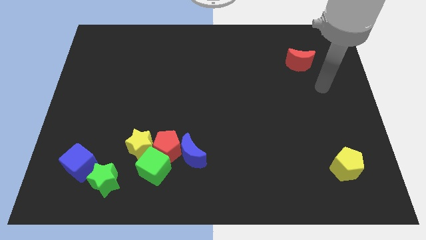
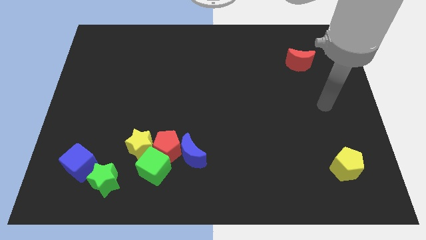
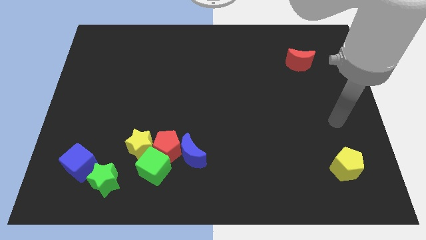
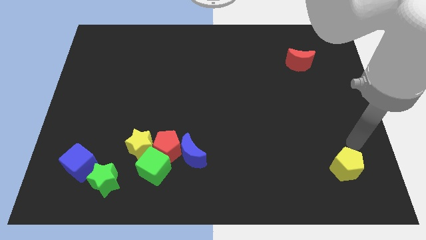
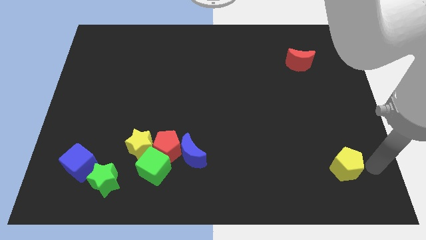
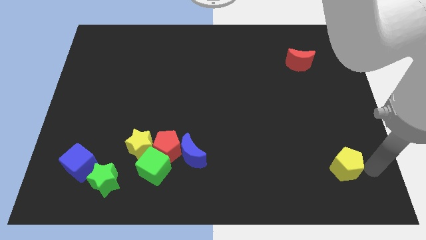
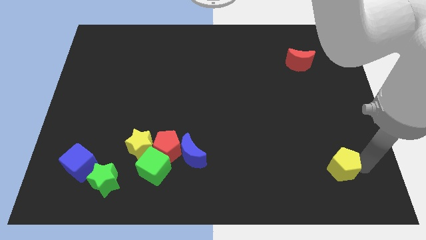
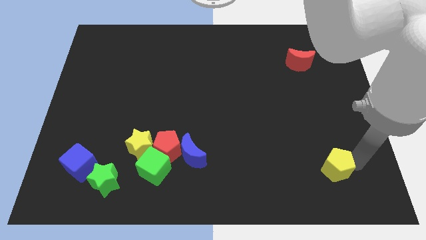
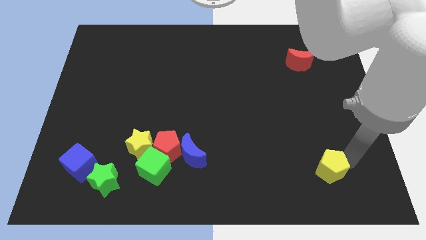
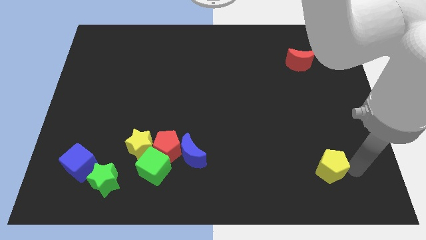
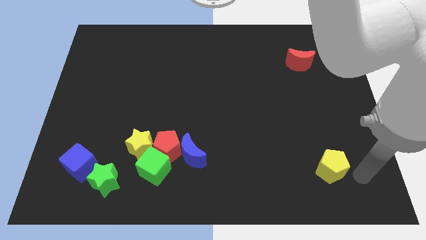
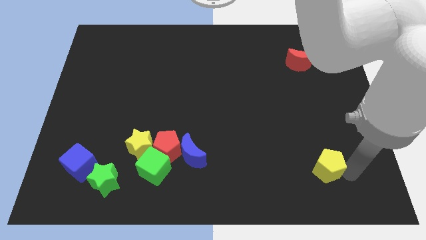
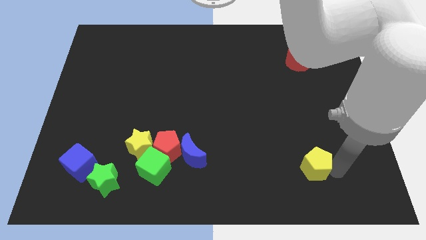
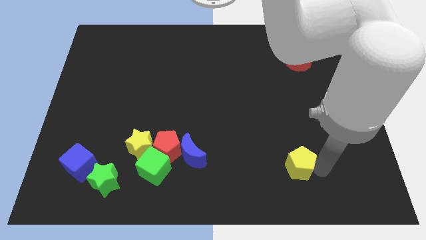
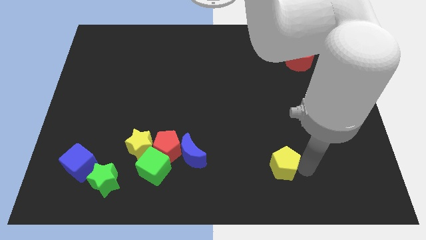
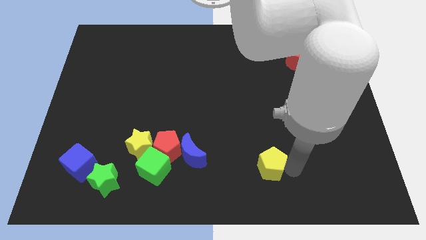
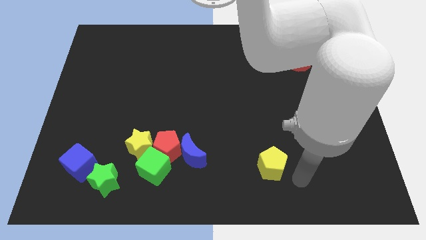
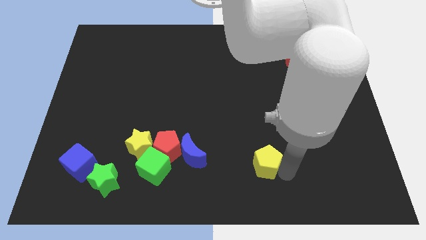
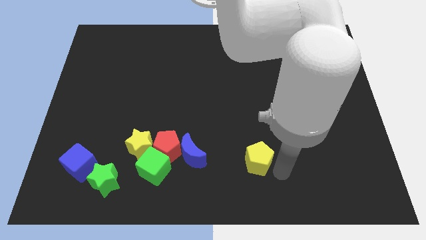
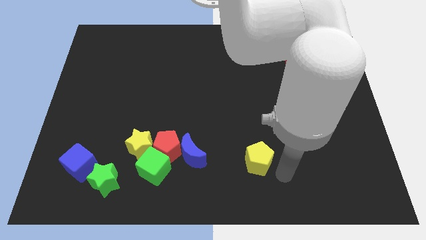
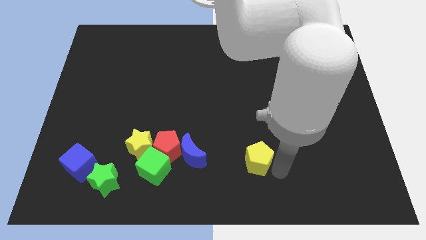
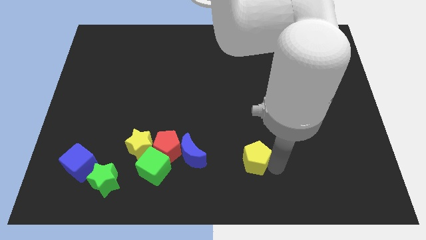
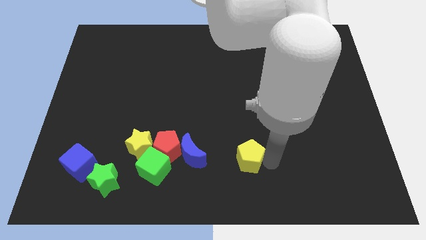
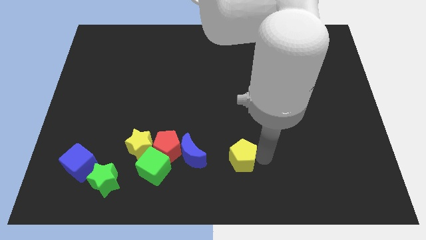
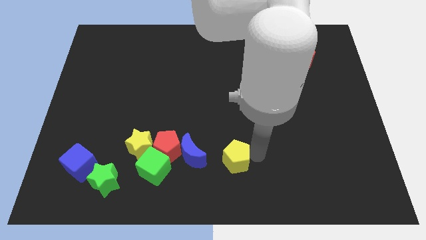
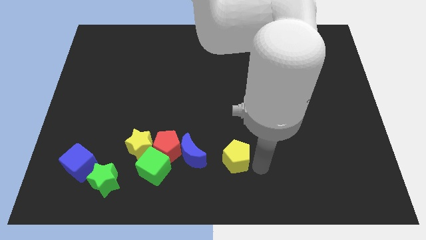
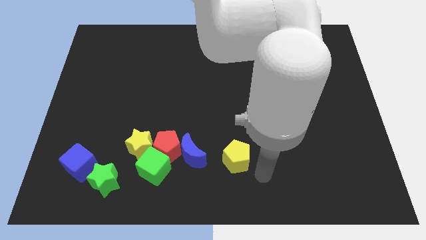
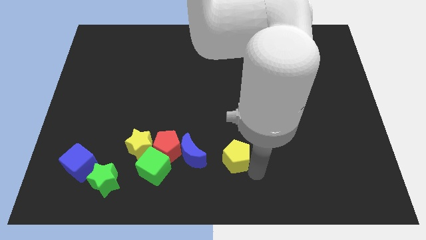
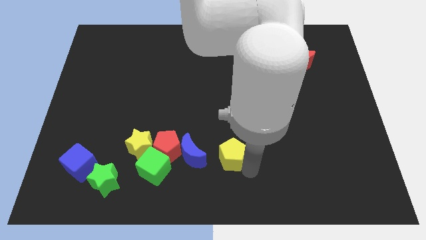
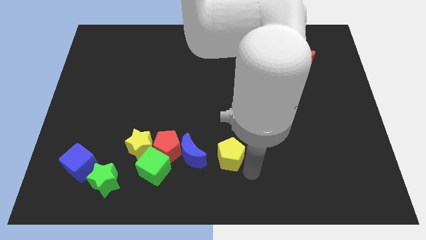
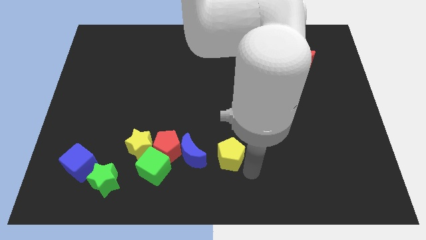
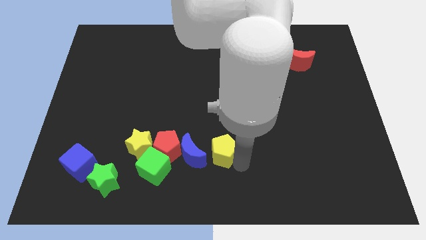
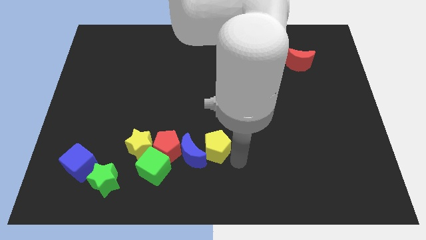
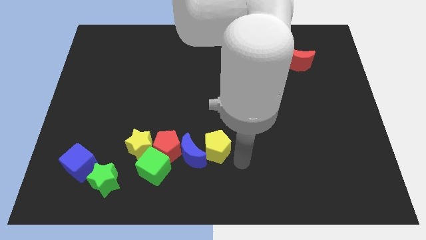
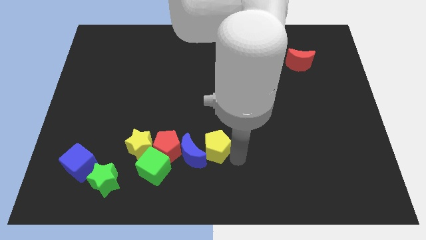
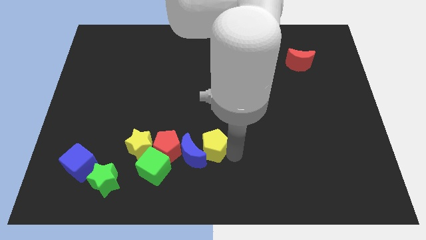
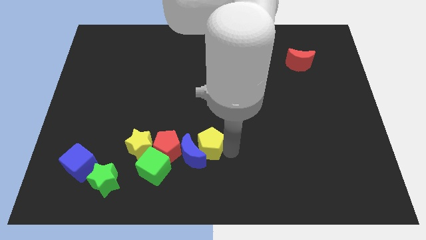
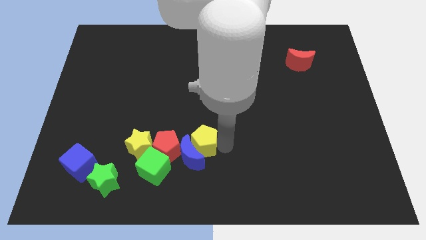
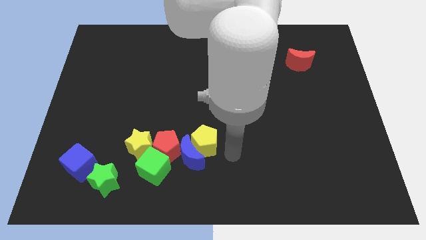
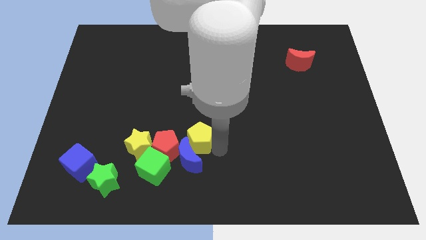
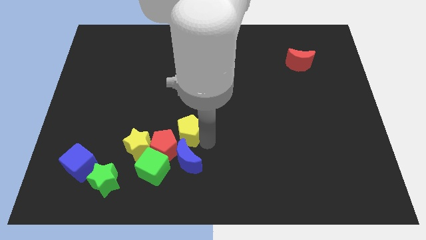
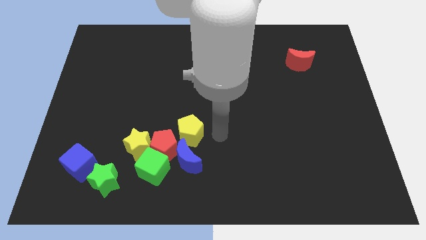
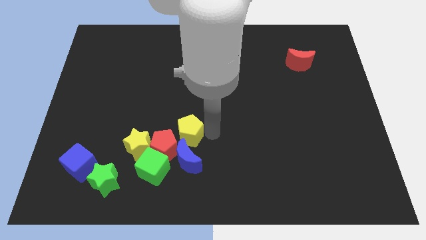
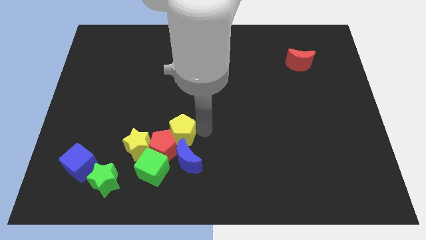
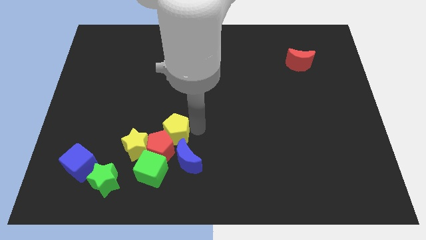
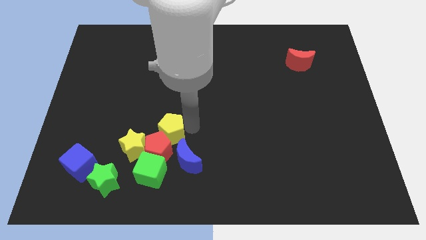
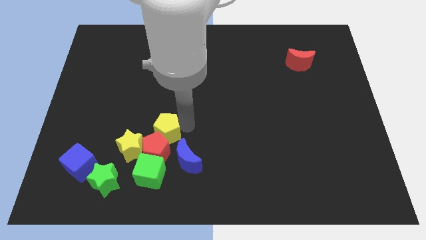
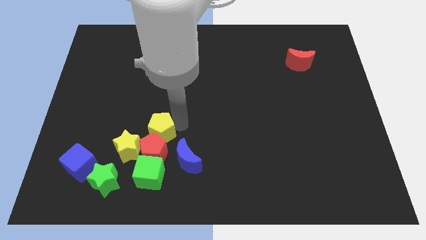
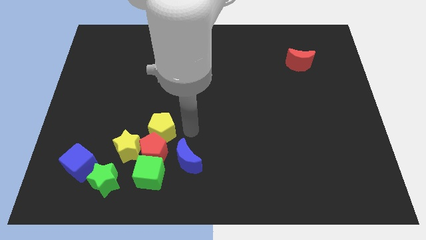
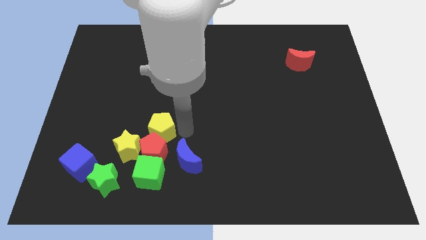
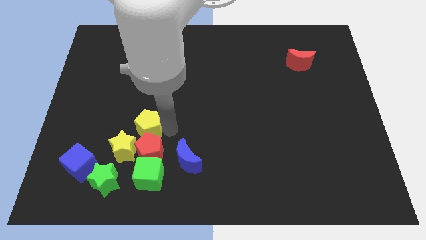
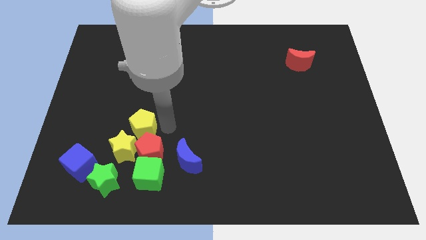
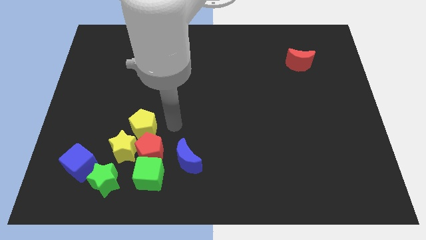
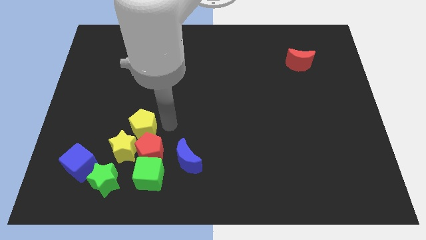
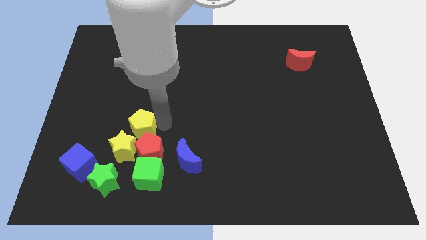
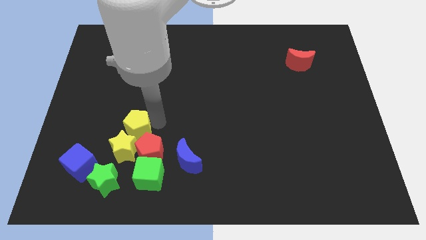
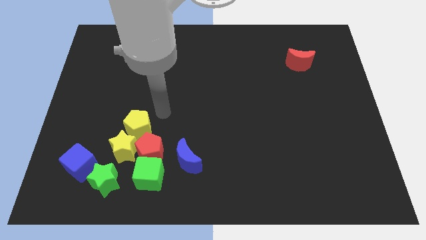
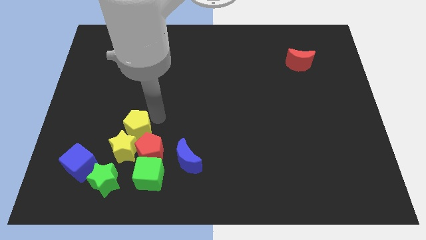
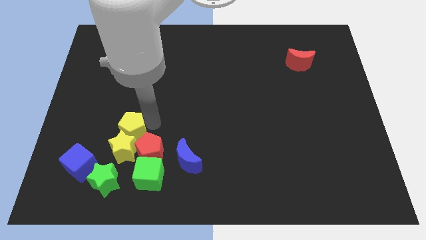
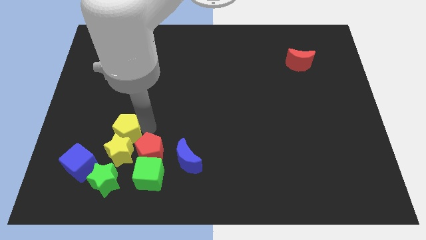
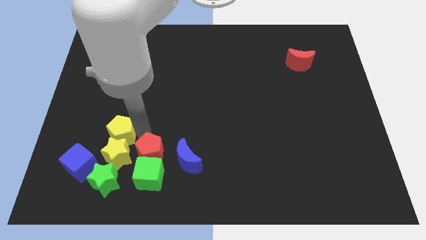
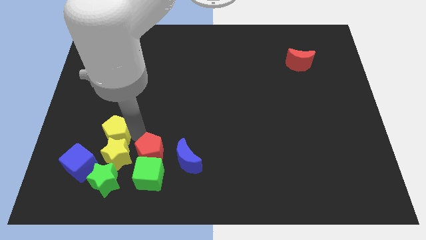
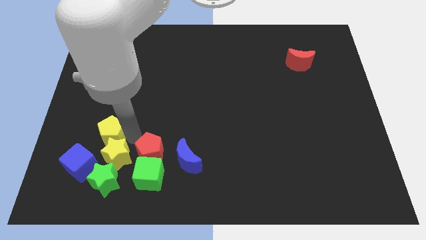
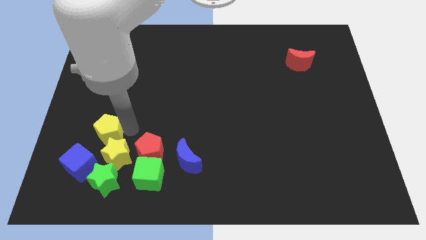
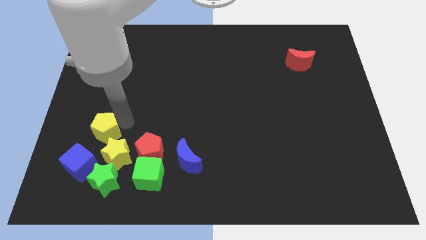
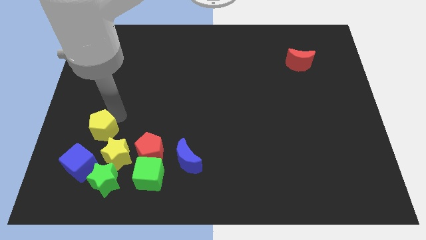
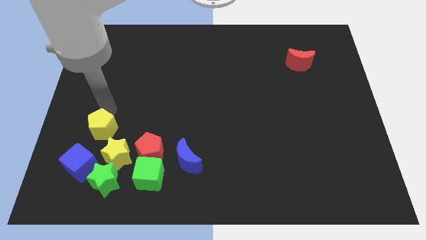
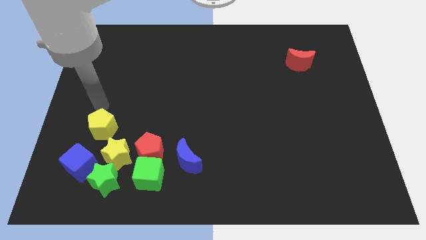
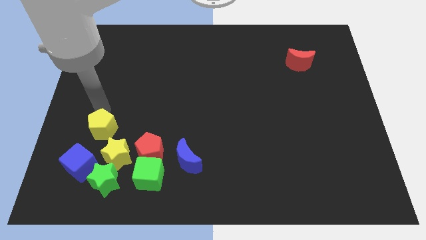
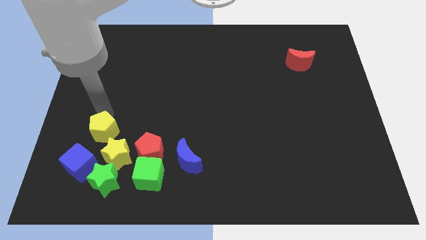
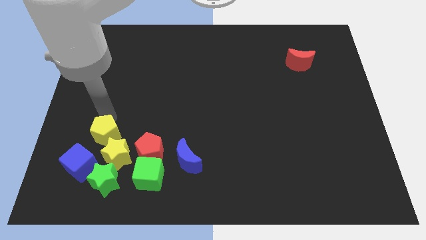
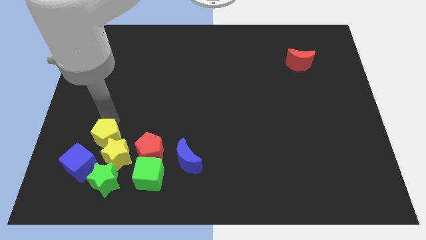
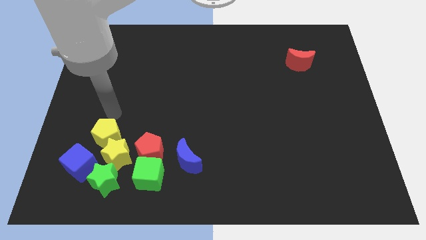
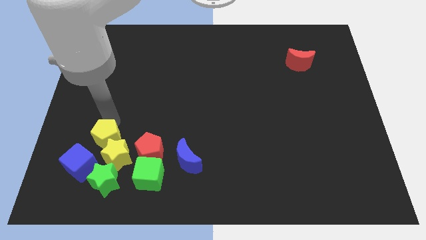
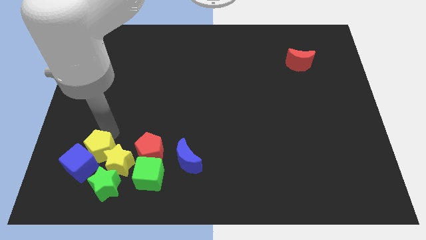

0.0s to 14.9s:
slide the yellow pentagon to the blue cube

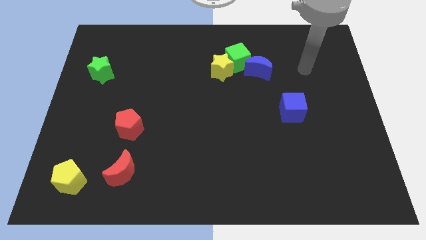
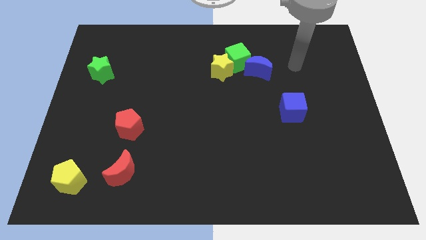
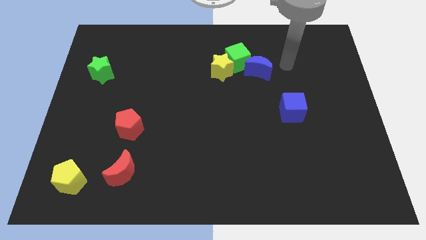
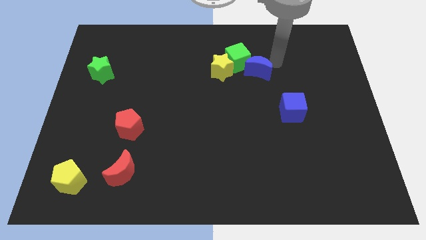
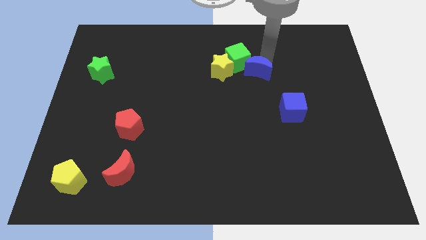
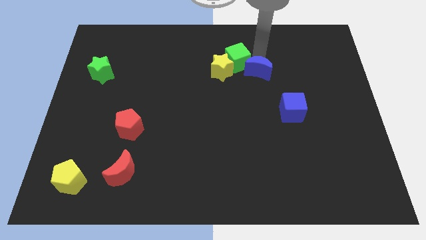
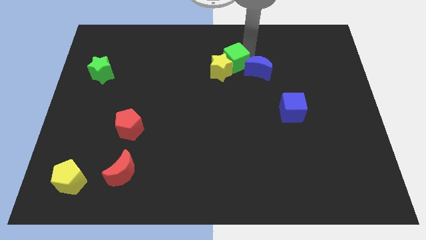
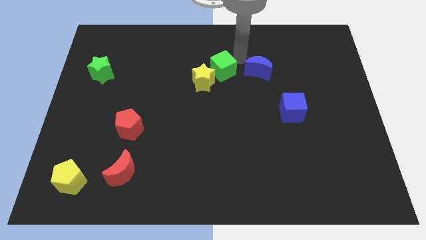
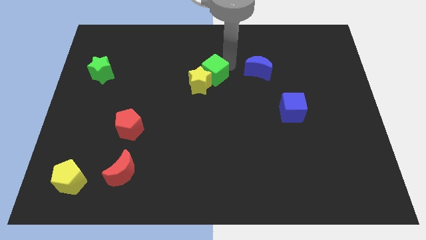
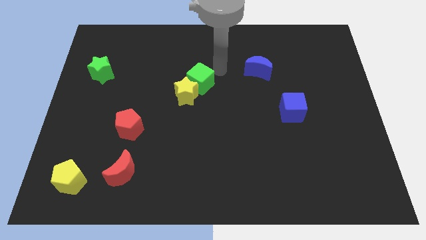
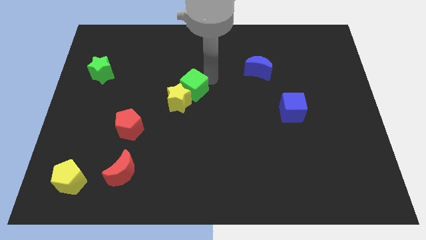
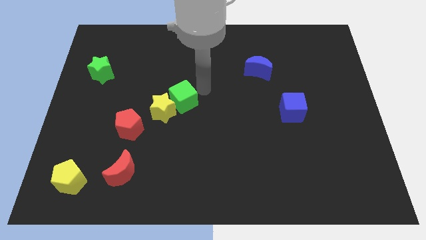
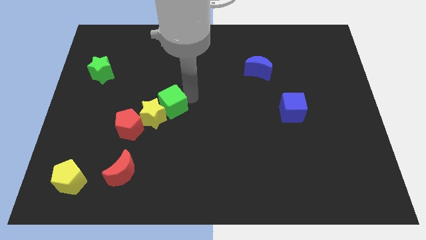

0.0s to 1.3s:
slide the yellow star close to the red pentagon
